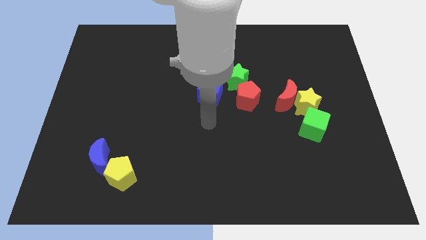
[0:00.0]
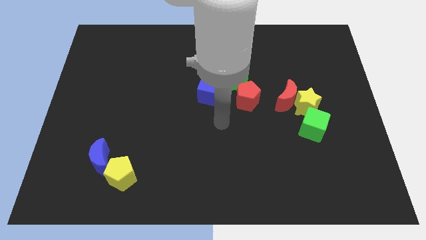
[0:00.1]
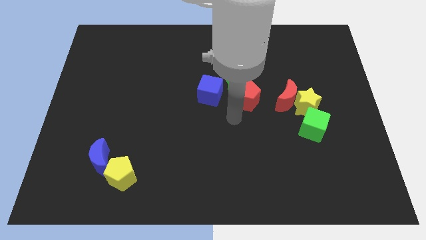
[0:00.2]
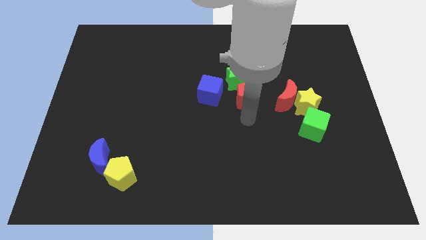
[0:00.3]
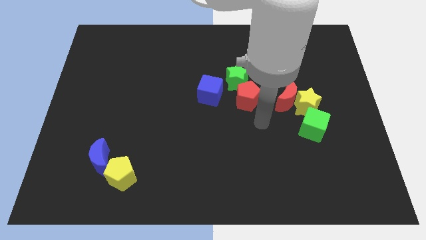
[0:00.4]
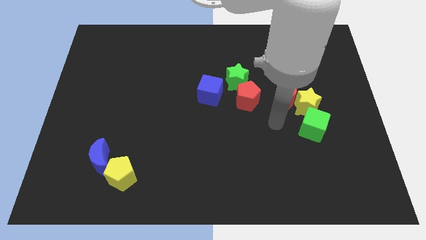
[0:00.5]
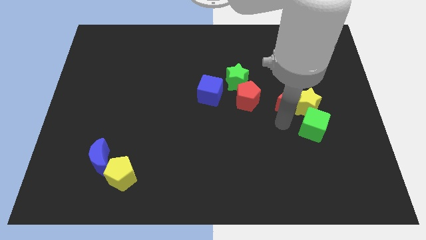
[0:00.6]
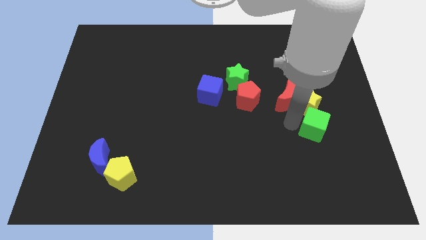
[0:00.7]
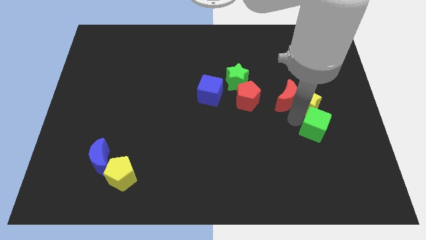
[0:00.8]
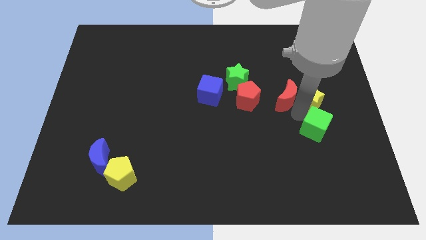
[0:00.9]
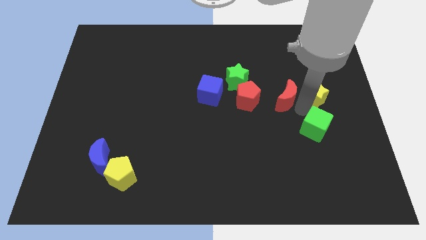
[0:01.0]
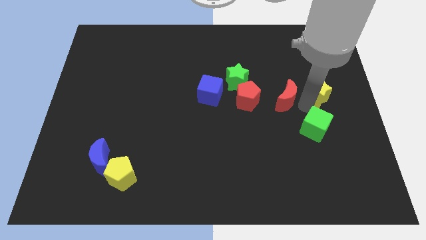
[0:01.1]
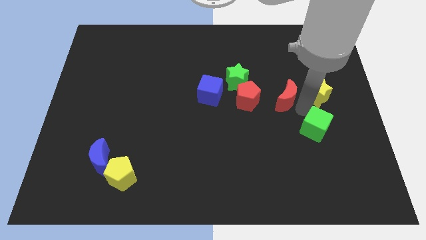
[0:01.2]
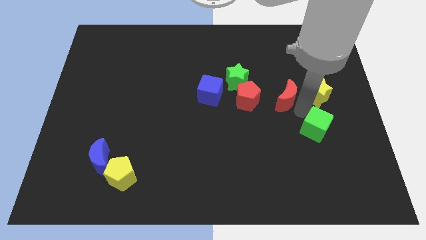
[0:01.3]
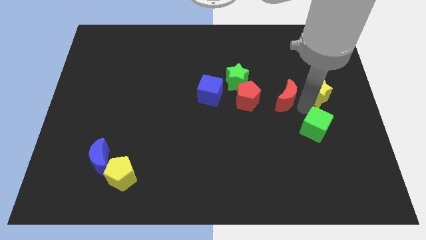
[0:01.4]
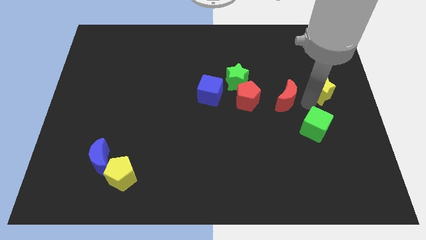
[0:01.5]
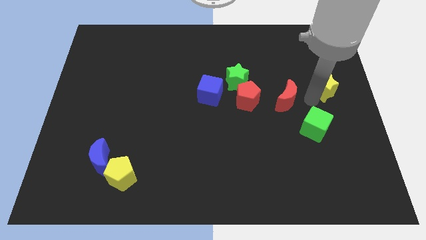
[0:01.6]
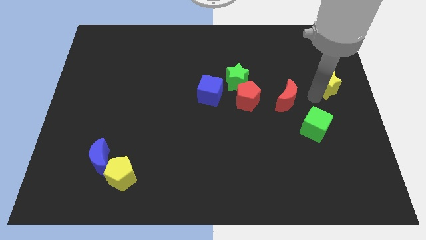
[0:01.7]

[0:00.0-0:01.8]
pull the yellow star apart from the red moon and green cube

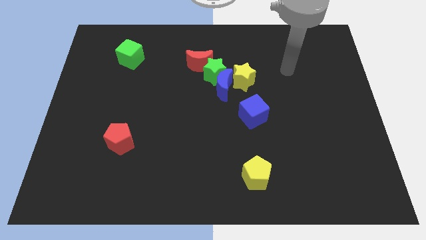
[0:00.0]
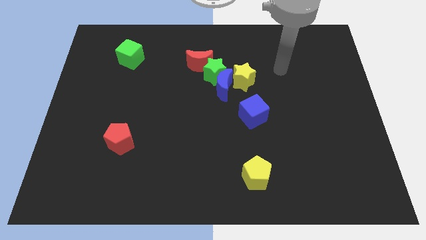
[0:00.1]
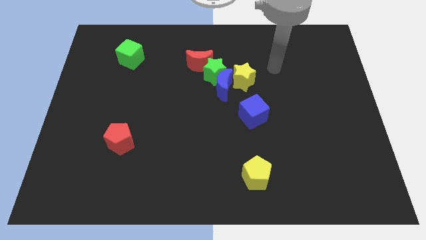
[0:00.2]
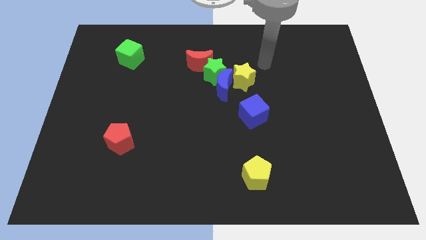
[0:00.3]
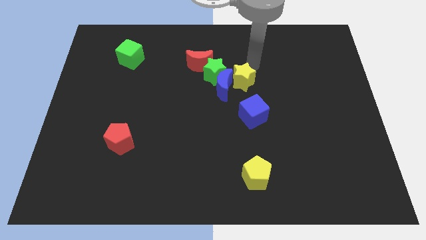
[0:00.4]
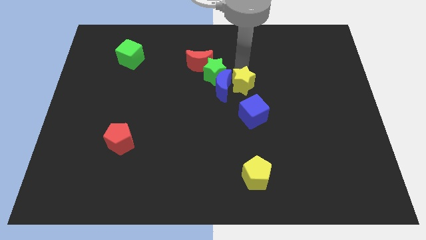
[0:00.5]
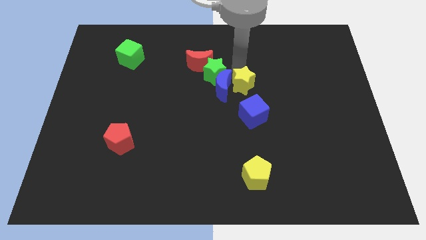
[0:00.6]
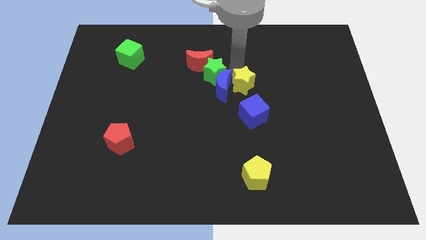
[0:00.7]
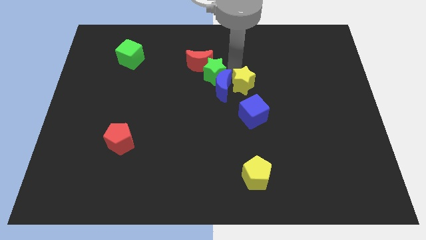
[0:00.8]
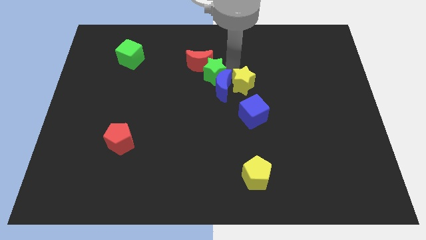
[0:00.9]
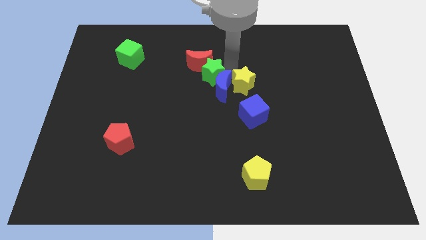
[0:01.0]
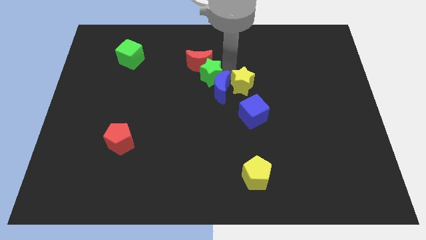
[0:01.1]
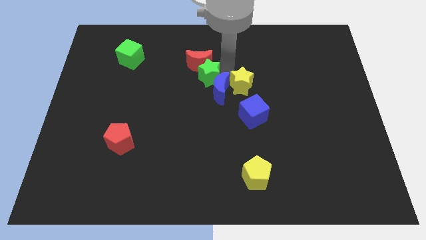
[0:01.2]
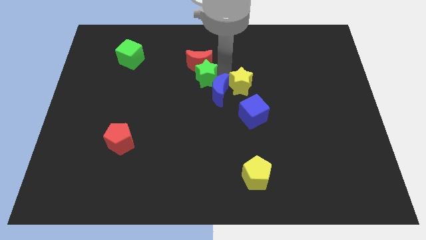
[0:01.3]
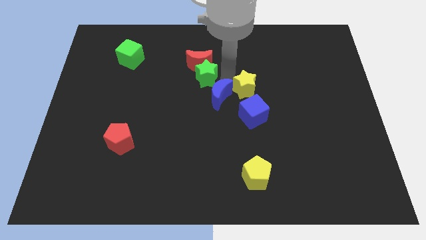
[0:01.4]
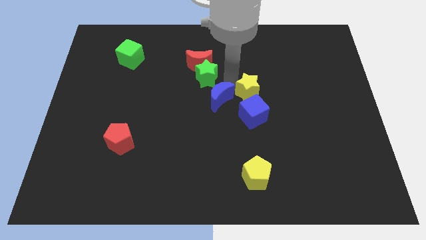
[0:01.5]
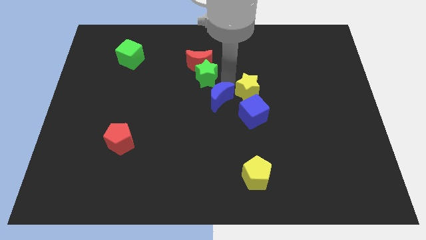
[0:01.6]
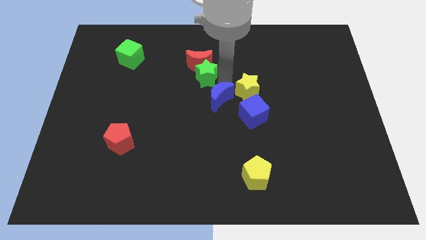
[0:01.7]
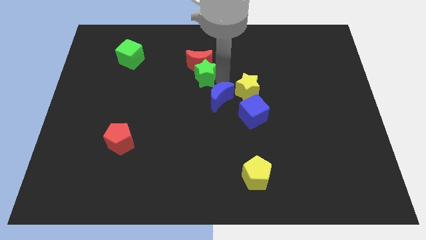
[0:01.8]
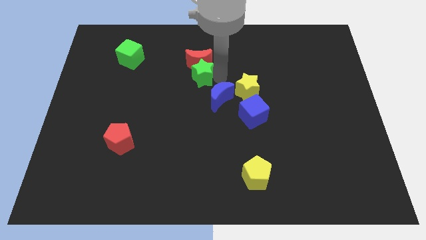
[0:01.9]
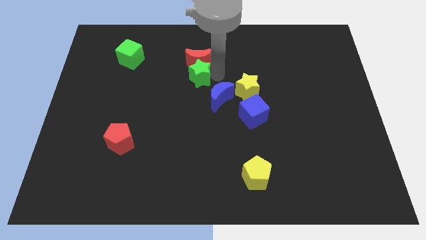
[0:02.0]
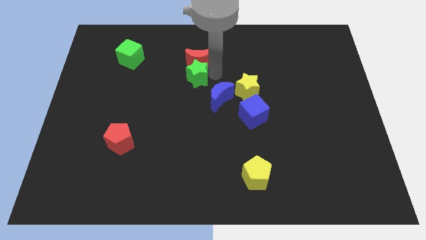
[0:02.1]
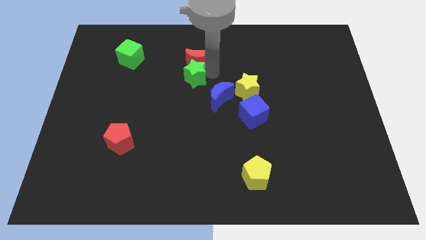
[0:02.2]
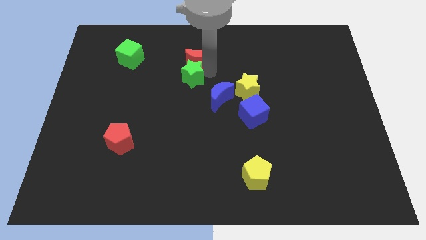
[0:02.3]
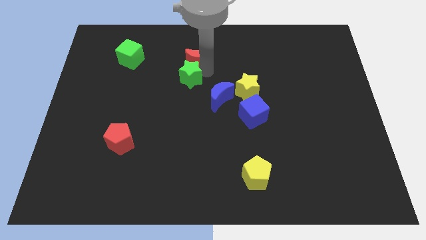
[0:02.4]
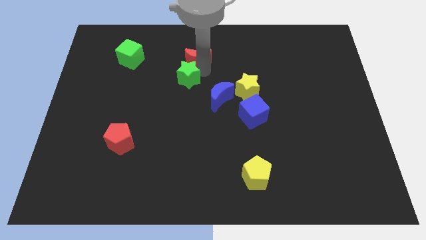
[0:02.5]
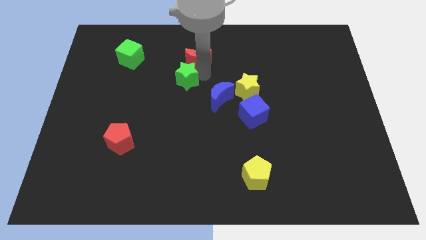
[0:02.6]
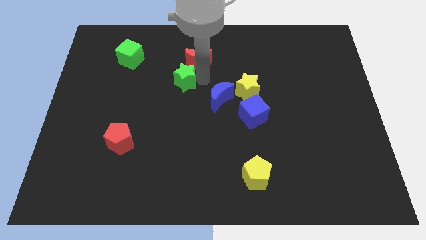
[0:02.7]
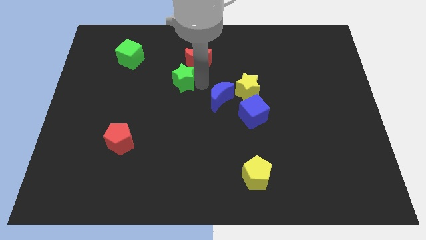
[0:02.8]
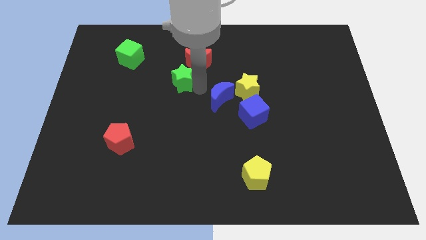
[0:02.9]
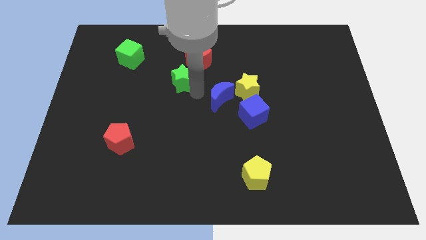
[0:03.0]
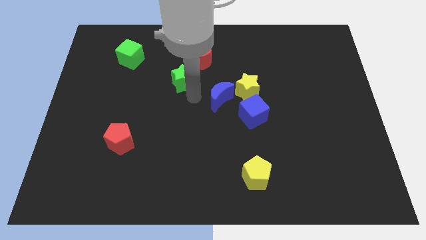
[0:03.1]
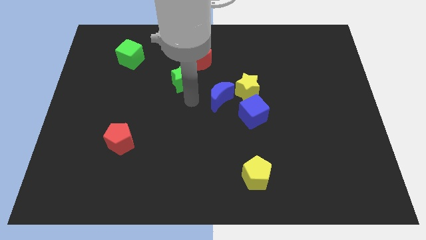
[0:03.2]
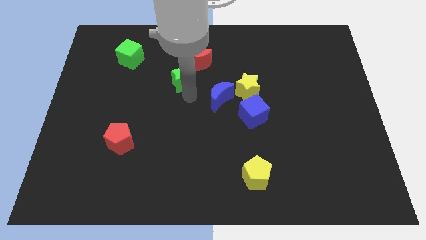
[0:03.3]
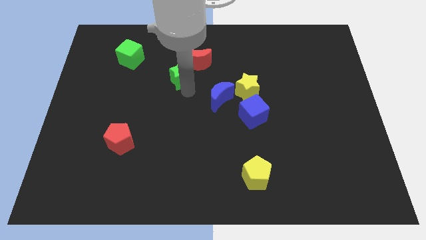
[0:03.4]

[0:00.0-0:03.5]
pull the green star apart from the blue moon, red moon, and yellow star

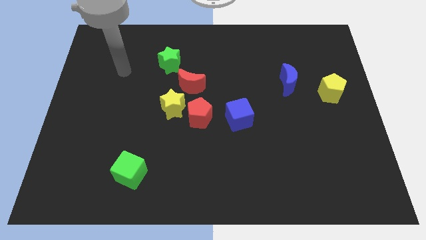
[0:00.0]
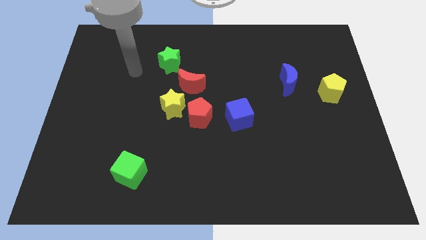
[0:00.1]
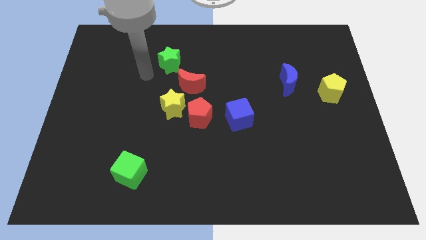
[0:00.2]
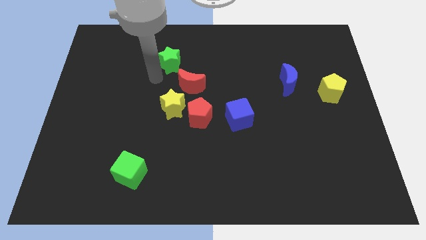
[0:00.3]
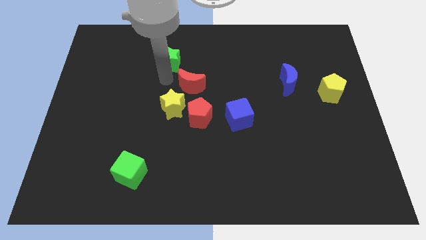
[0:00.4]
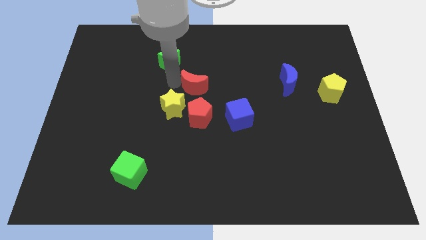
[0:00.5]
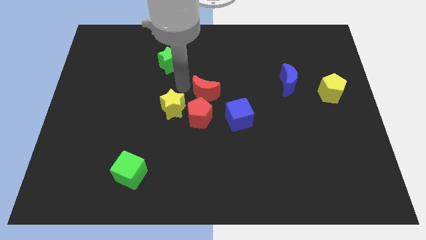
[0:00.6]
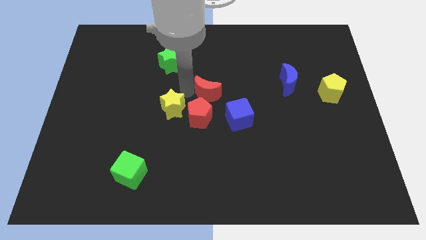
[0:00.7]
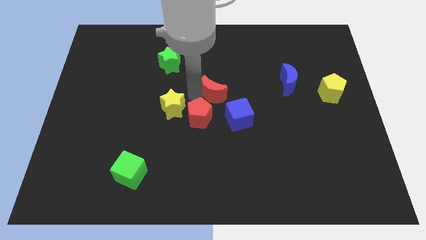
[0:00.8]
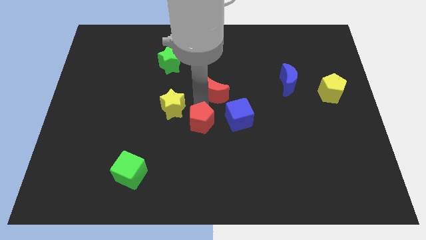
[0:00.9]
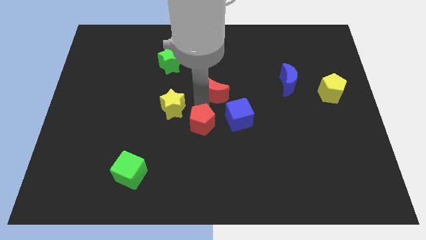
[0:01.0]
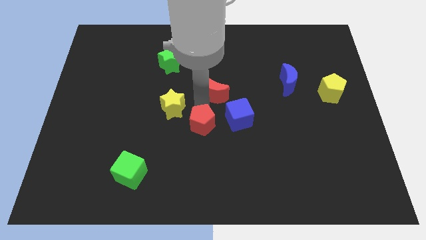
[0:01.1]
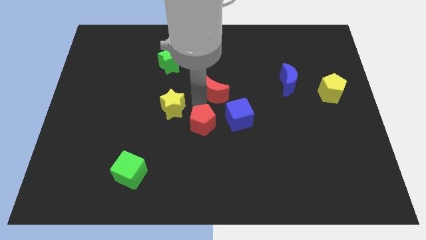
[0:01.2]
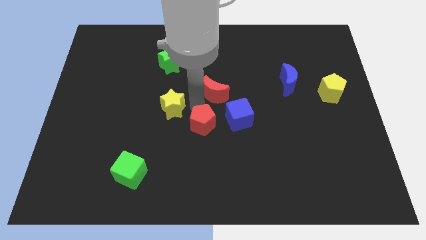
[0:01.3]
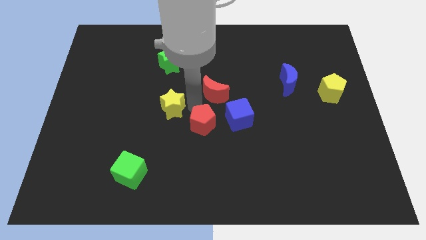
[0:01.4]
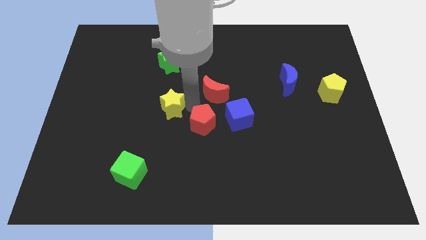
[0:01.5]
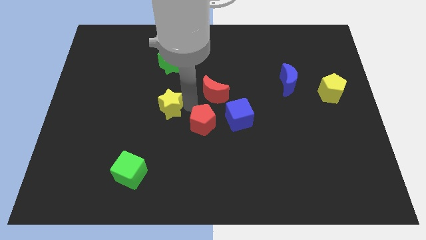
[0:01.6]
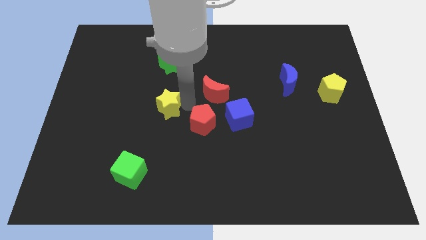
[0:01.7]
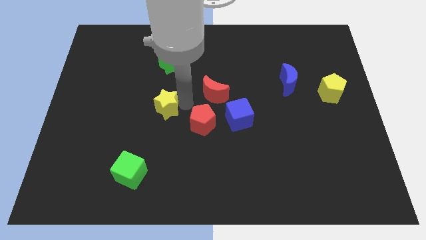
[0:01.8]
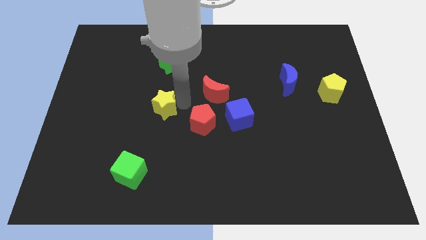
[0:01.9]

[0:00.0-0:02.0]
pull the yellow star apart from the red pentagon and red moon

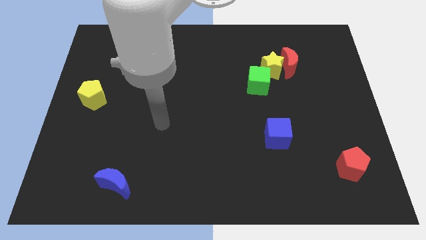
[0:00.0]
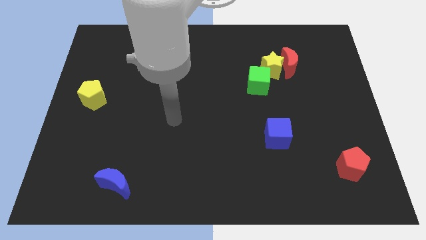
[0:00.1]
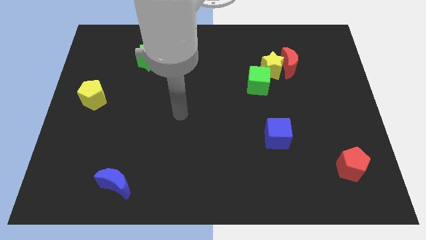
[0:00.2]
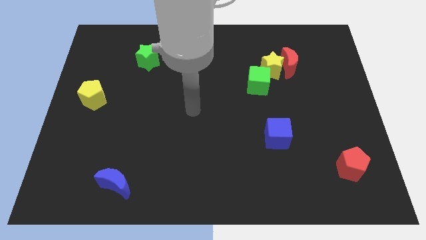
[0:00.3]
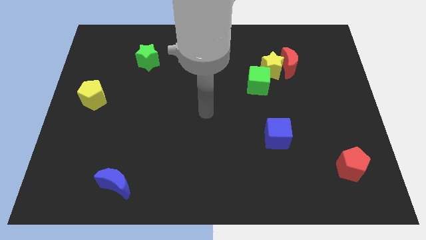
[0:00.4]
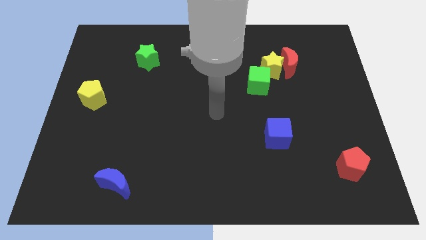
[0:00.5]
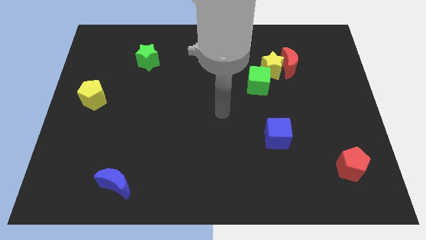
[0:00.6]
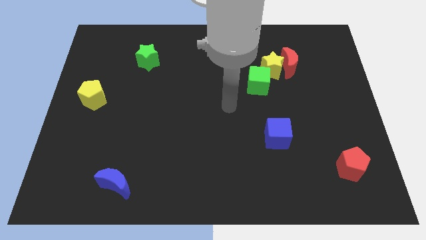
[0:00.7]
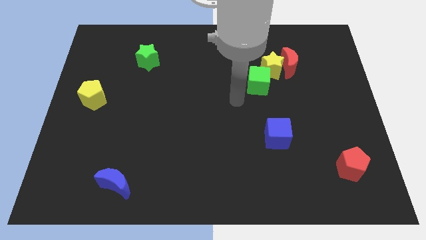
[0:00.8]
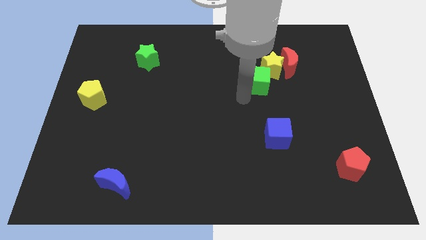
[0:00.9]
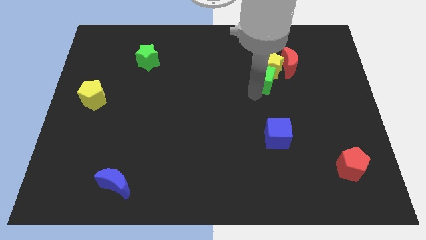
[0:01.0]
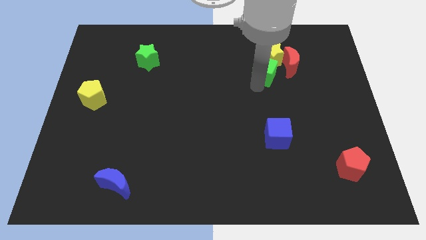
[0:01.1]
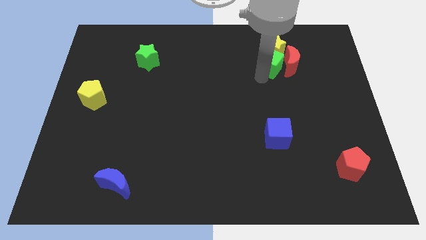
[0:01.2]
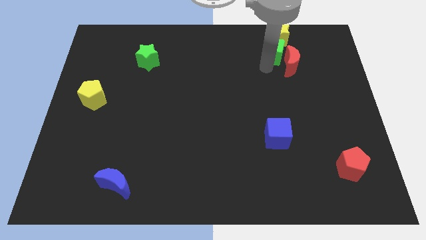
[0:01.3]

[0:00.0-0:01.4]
pull the red moon apart from the yellow star

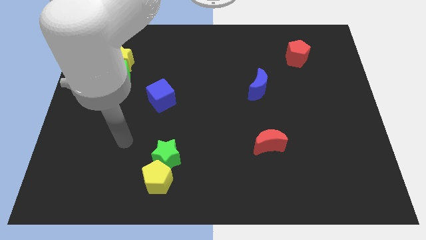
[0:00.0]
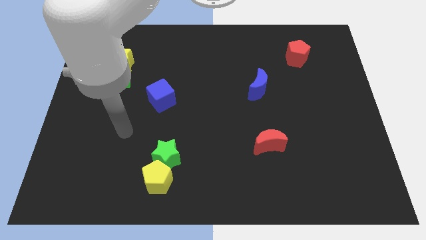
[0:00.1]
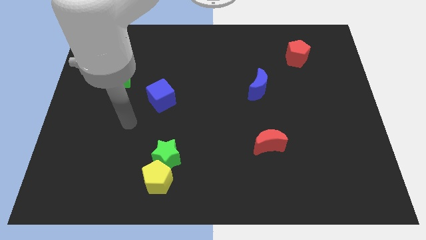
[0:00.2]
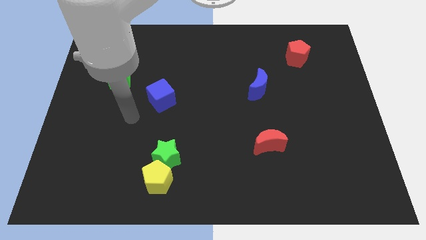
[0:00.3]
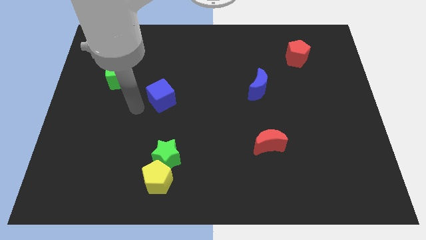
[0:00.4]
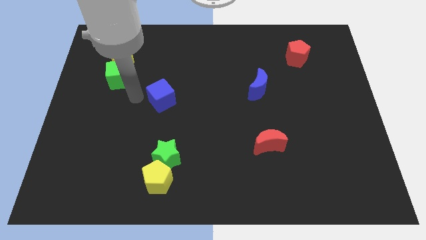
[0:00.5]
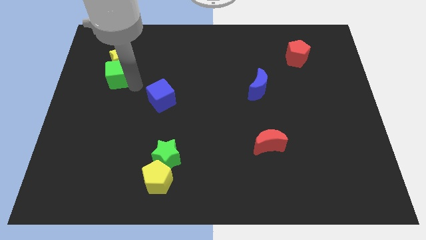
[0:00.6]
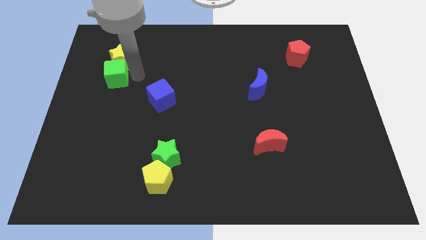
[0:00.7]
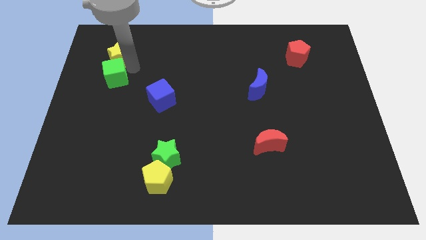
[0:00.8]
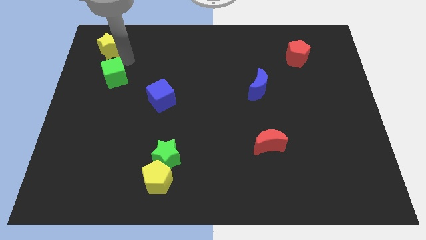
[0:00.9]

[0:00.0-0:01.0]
separate the green cube from the yellow star
